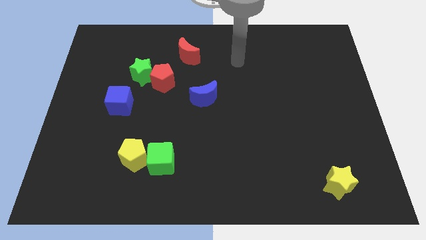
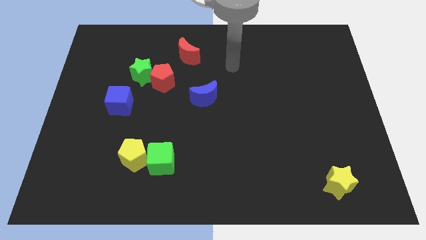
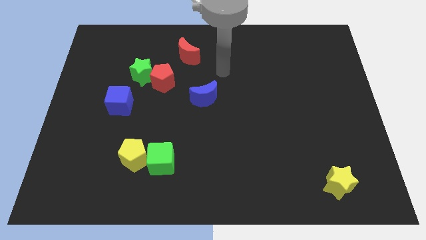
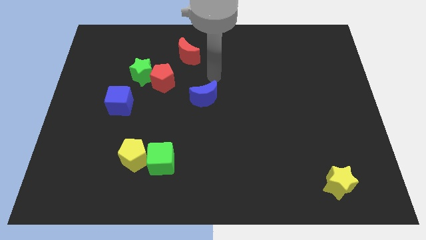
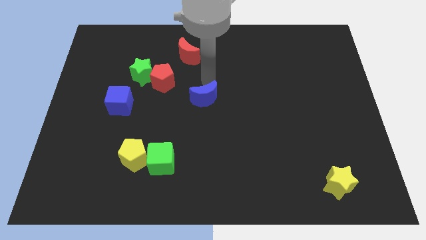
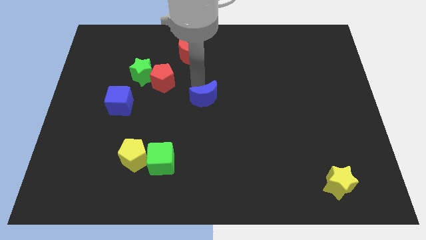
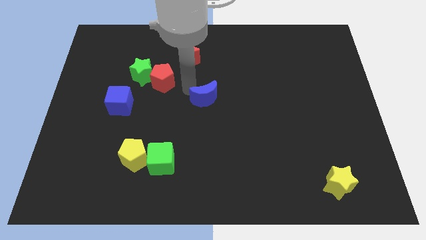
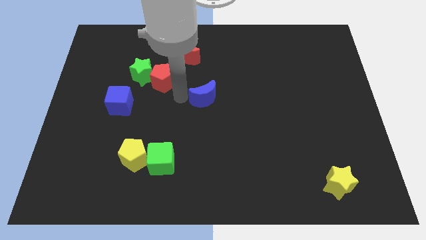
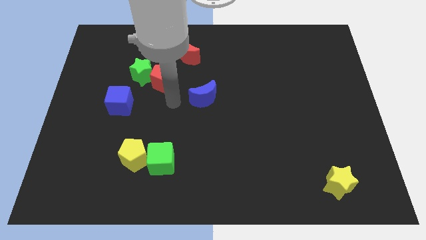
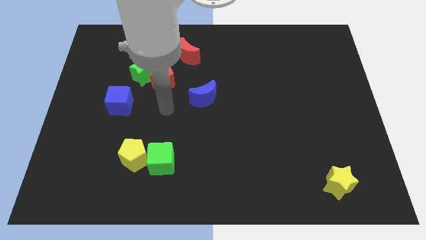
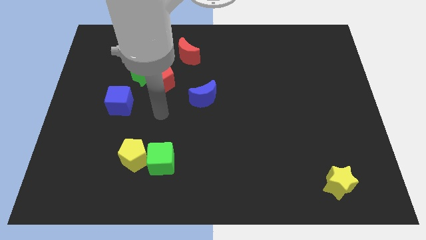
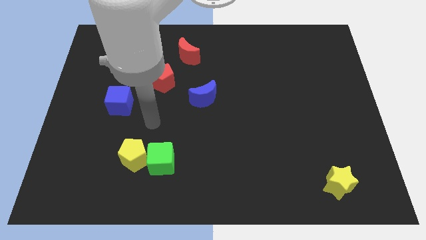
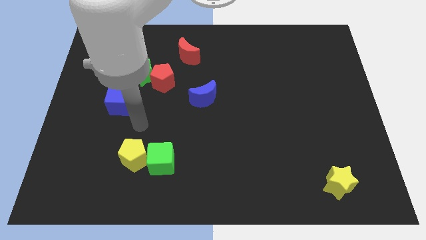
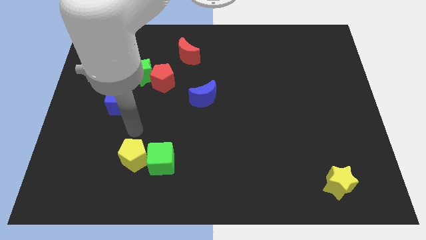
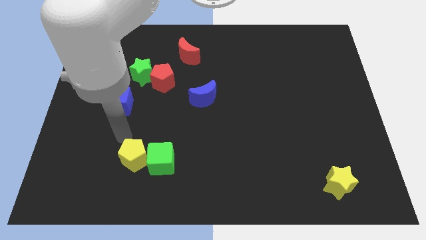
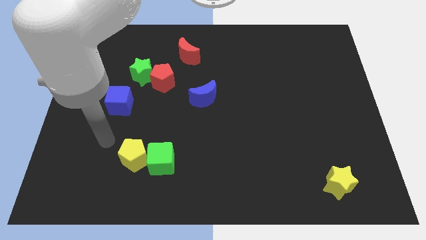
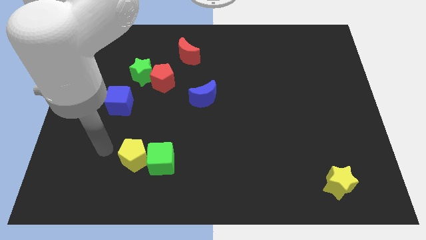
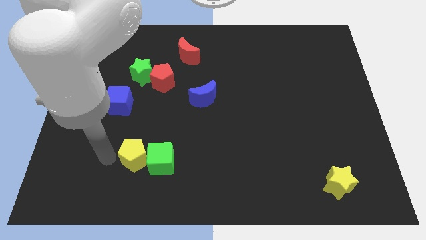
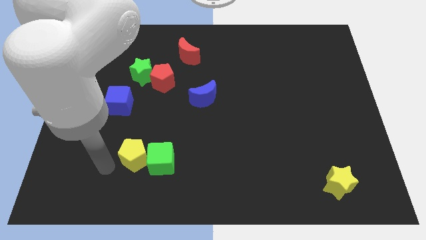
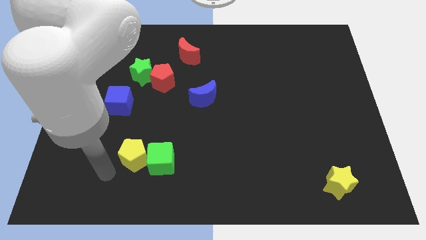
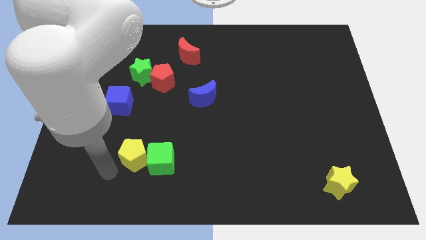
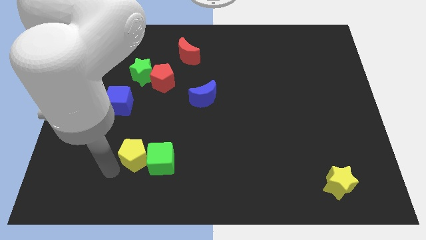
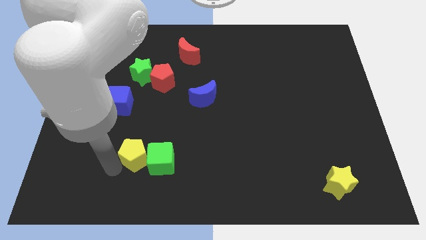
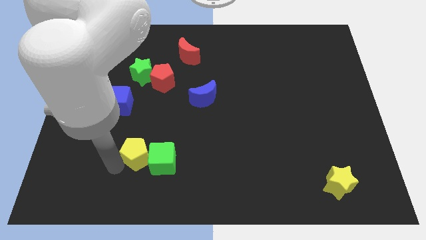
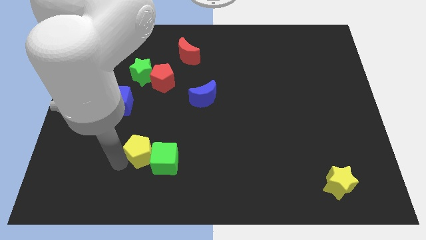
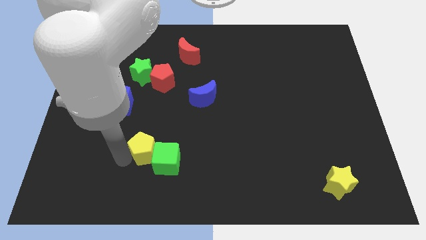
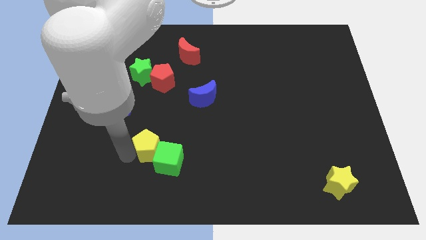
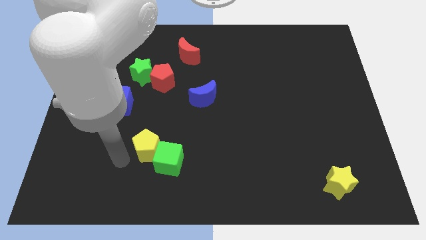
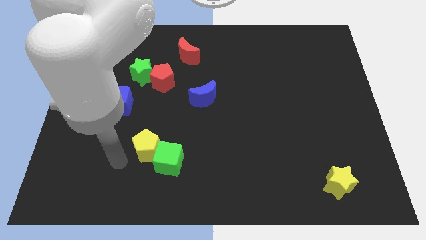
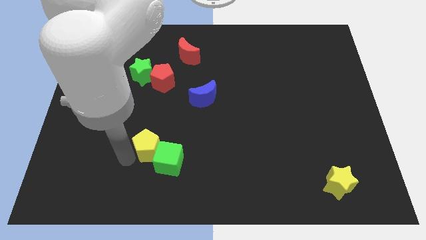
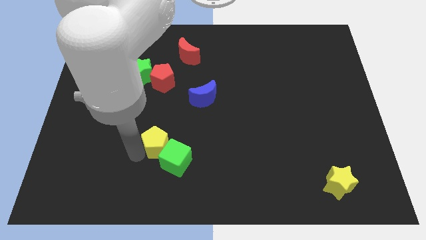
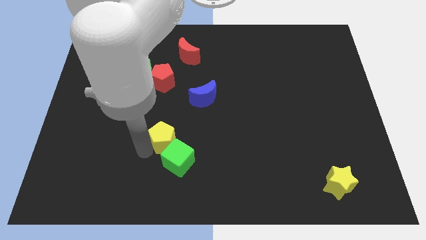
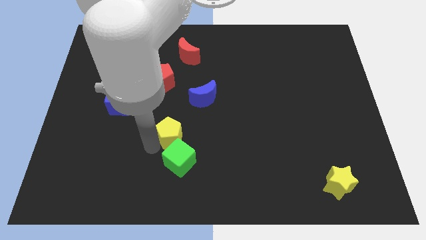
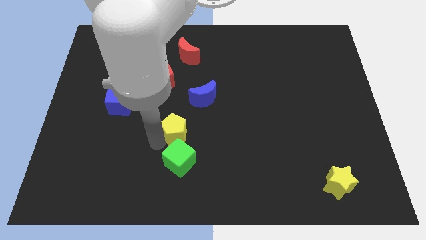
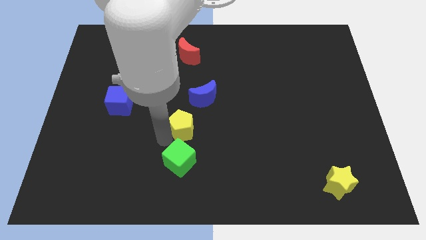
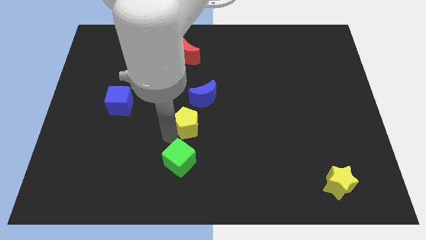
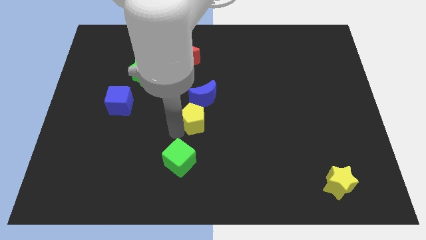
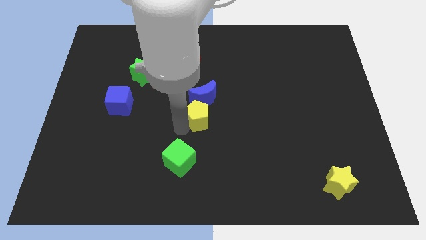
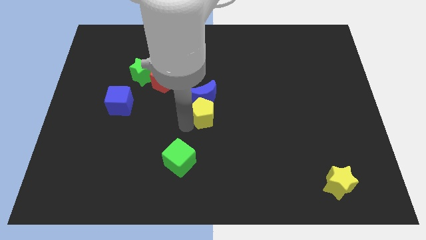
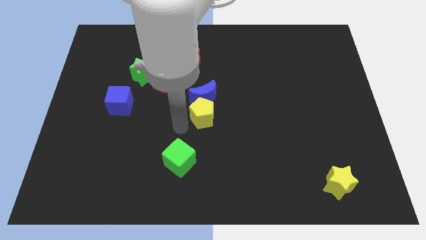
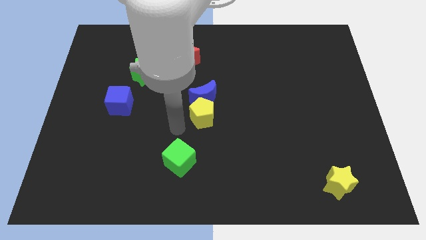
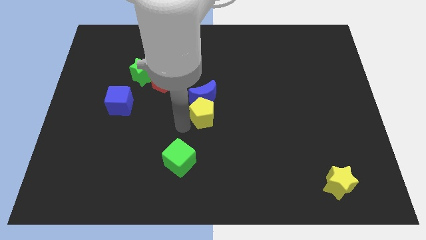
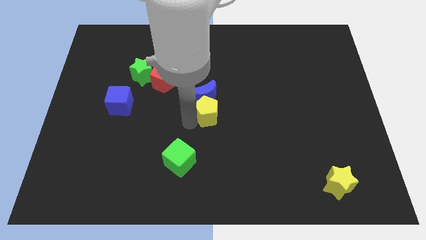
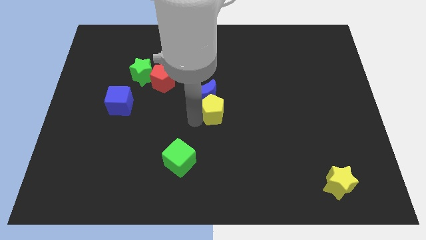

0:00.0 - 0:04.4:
move the yellow pentagon diagonally upwards and right

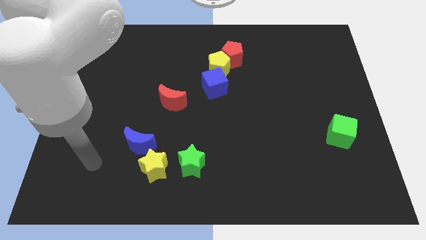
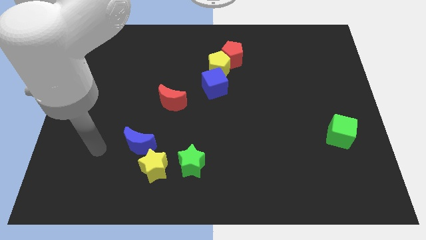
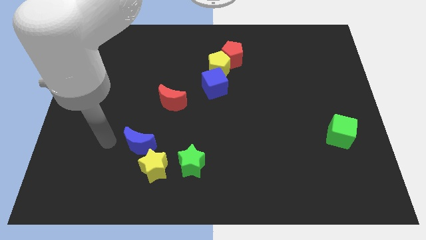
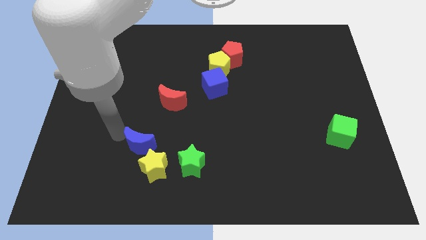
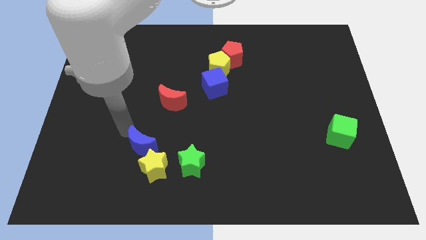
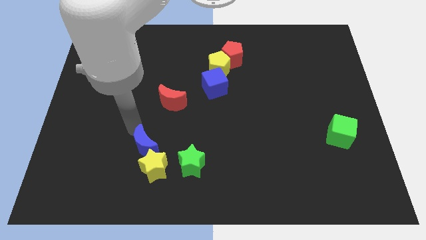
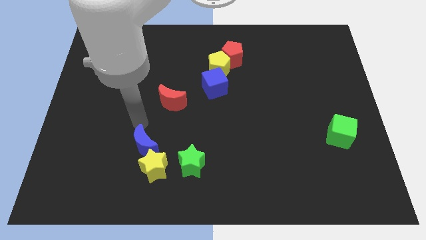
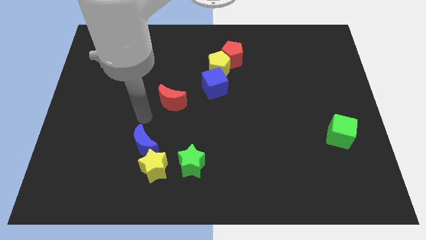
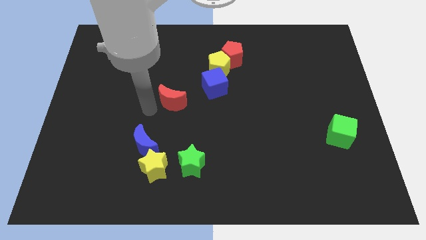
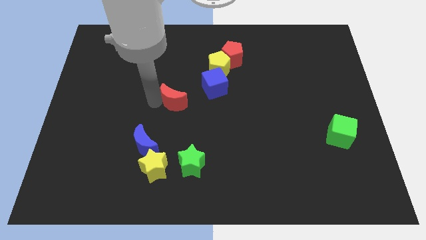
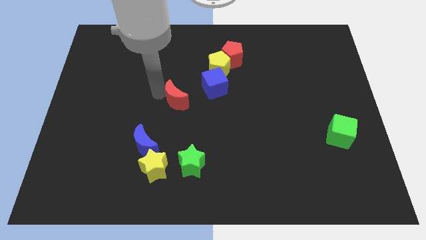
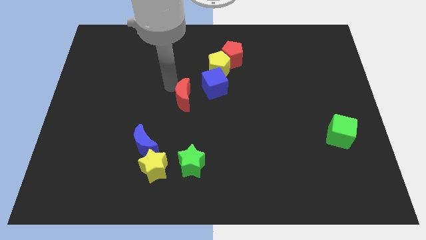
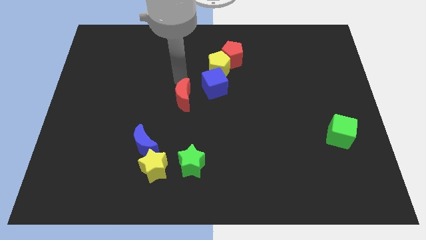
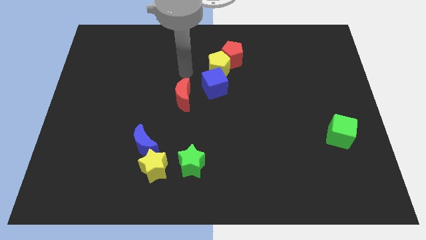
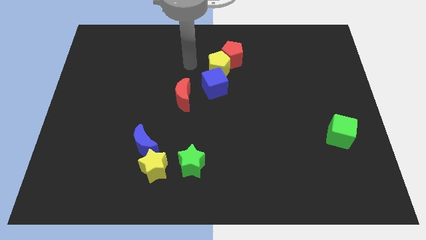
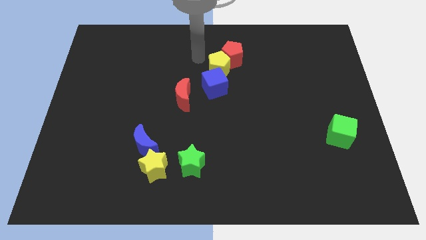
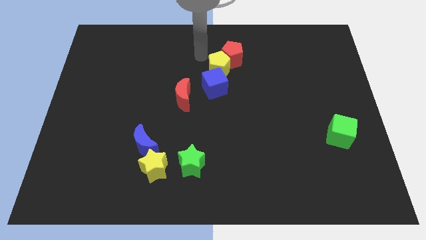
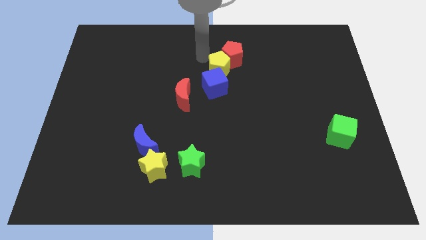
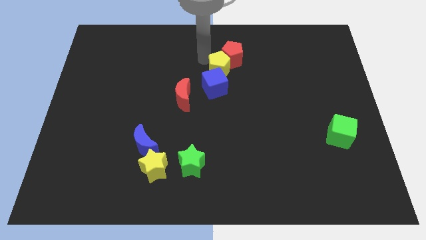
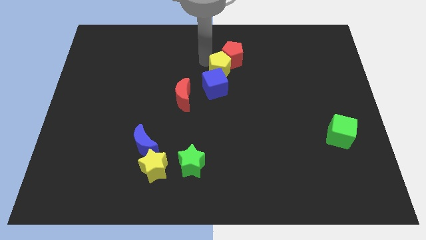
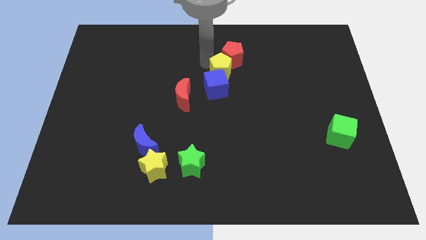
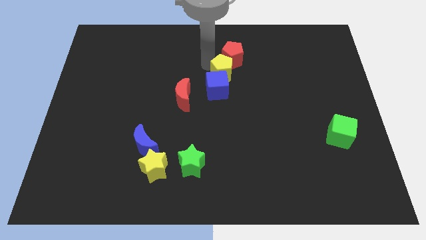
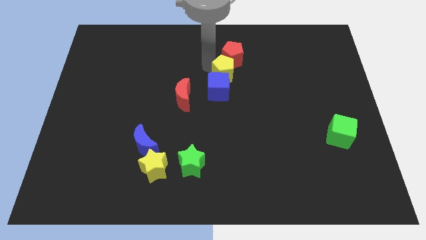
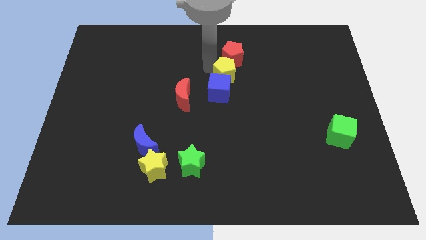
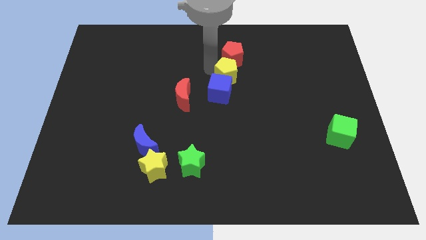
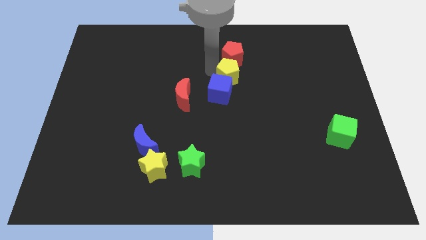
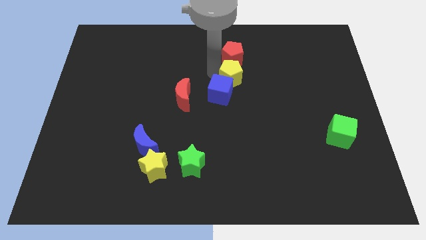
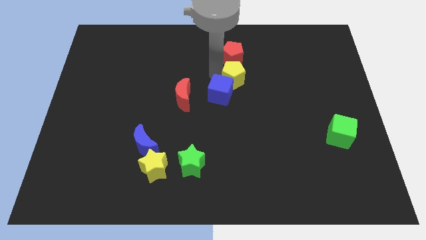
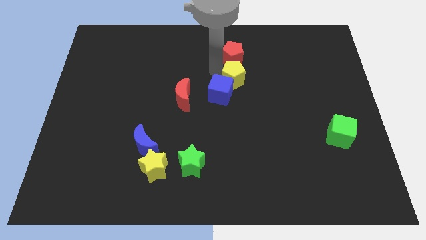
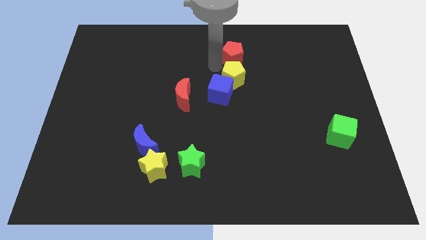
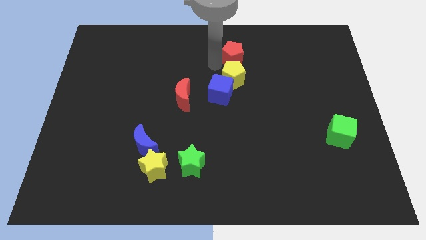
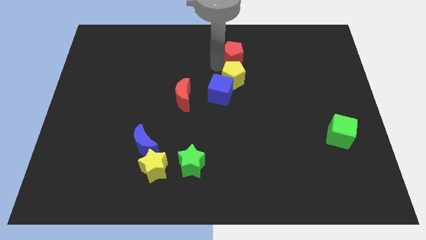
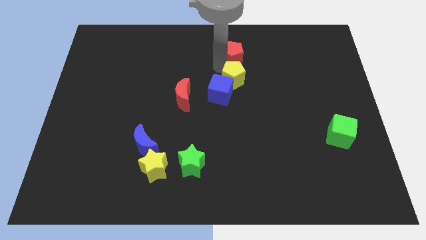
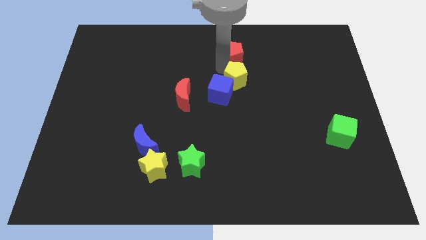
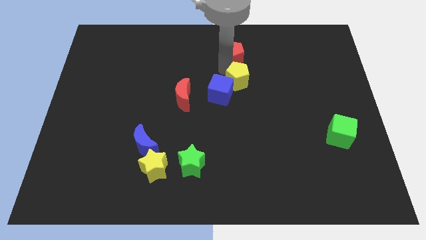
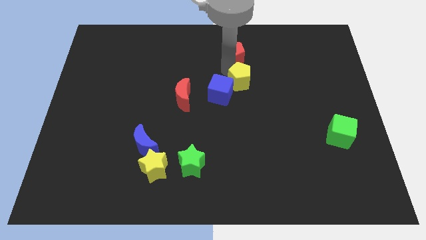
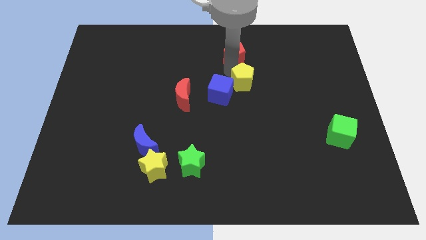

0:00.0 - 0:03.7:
move the yellow pentagon somewhat downwards and then to the right

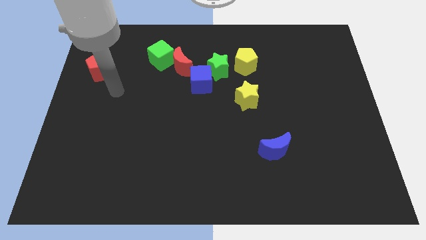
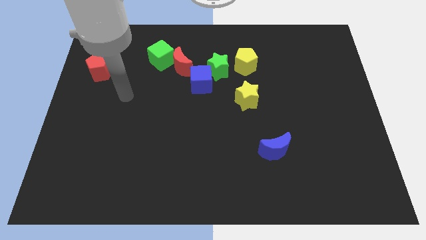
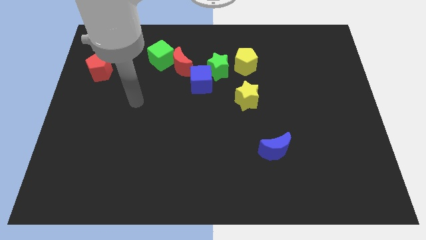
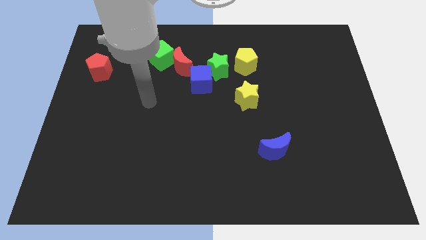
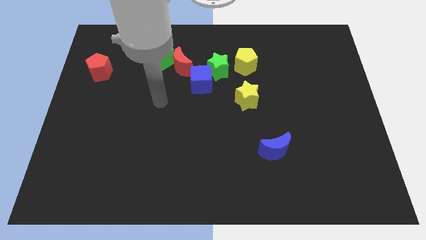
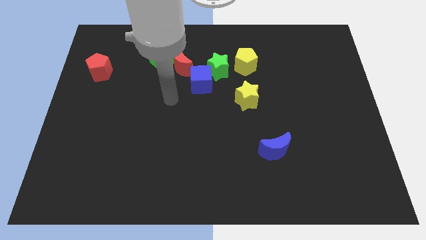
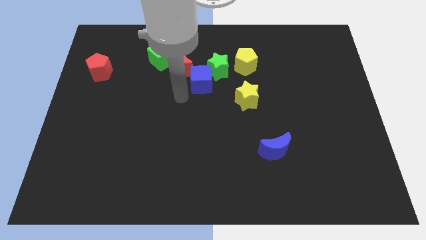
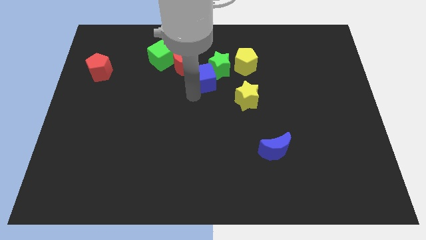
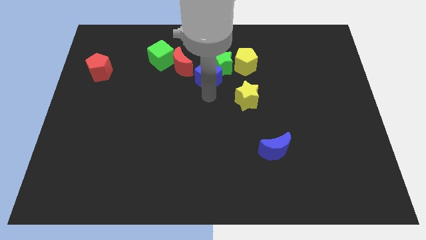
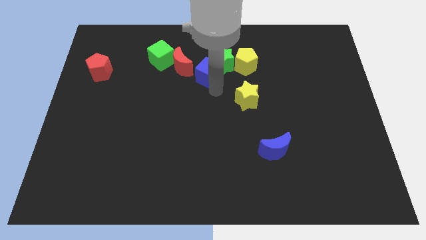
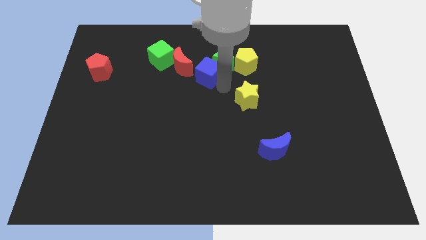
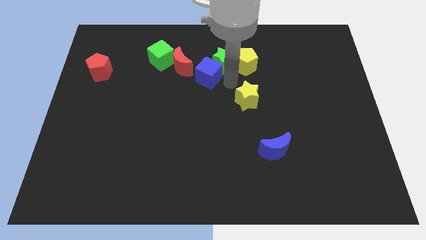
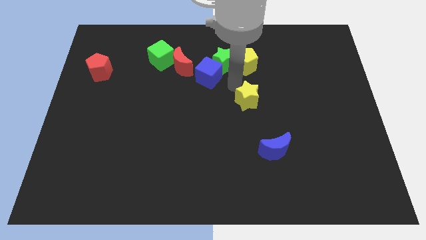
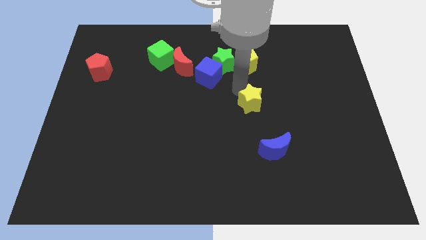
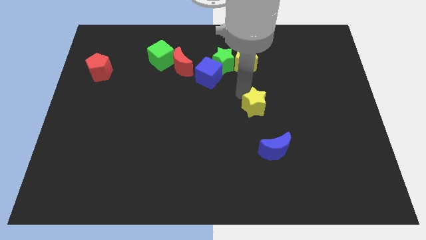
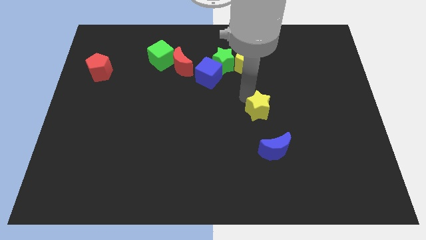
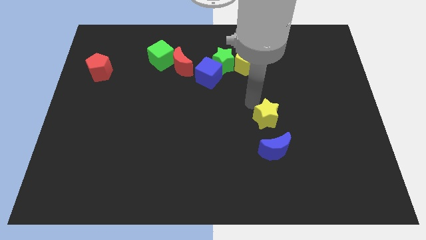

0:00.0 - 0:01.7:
push the yellow star downwards and right diagonally somewhat
